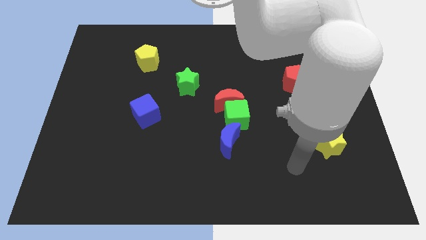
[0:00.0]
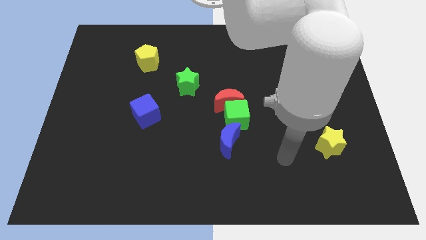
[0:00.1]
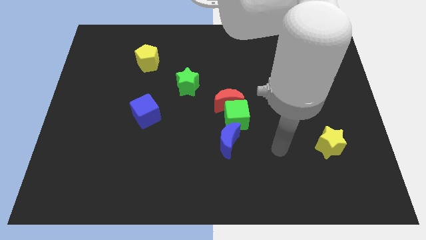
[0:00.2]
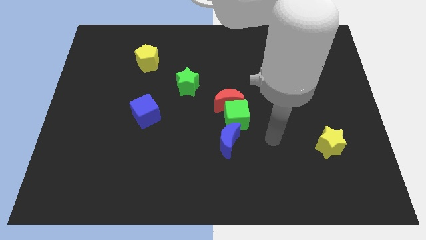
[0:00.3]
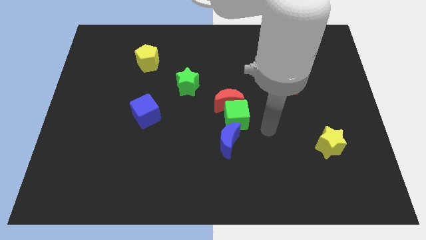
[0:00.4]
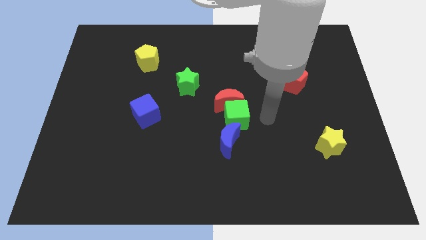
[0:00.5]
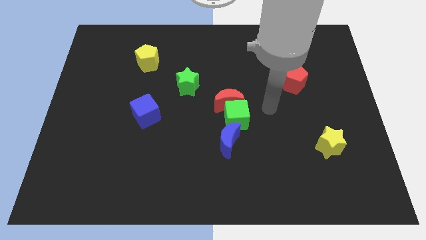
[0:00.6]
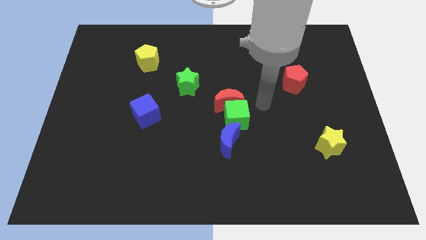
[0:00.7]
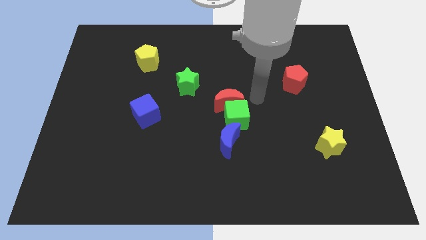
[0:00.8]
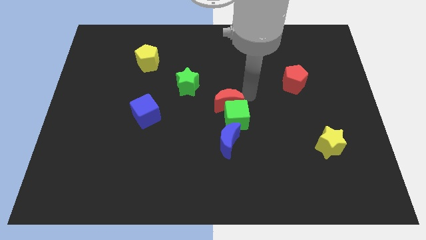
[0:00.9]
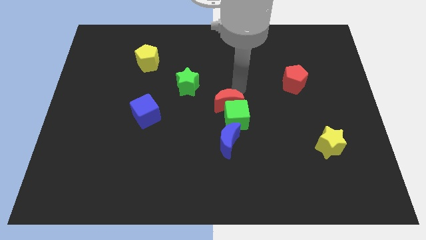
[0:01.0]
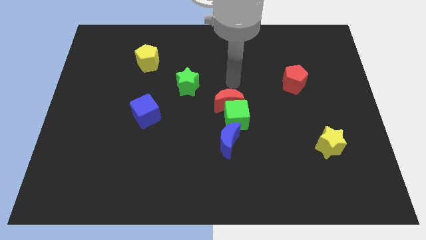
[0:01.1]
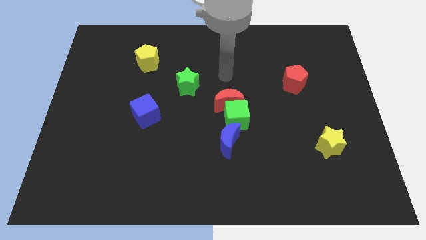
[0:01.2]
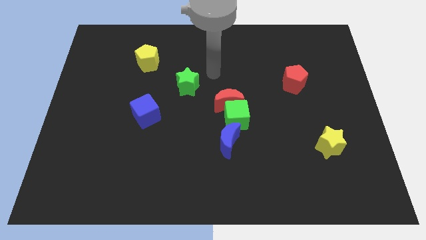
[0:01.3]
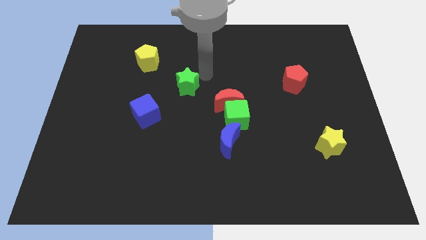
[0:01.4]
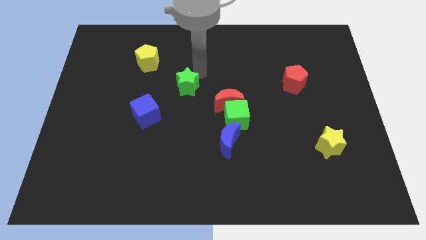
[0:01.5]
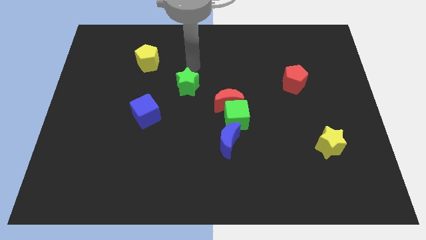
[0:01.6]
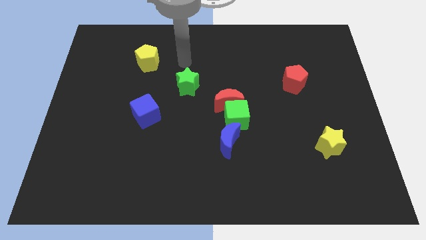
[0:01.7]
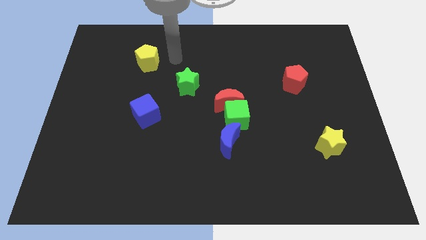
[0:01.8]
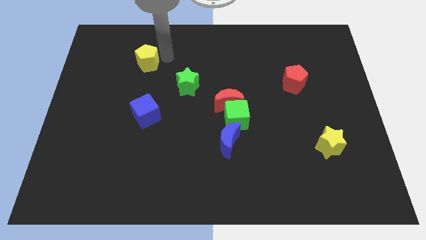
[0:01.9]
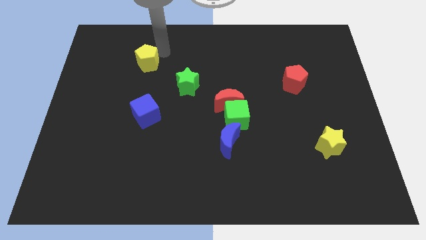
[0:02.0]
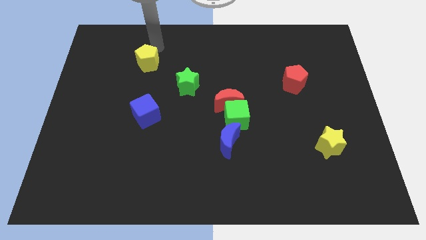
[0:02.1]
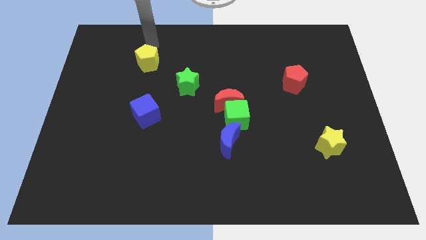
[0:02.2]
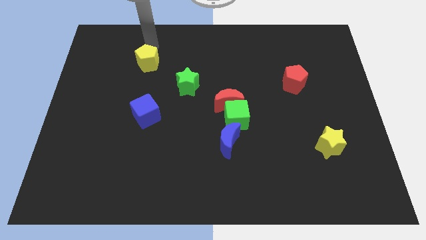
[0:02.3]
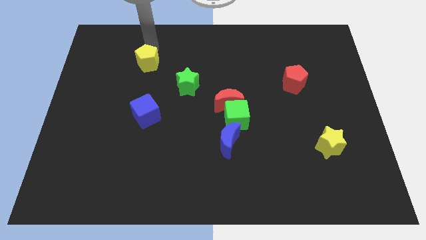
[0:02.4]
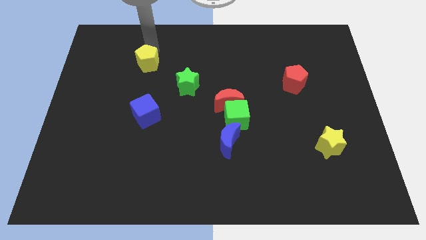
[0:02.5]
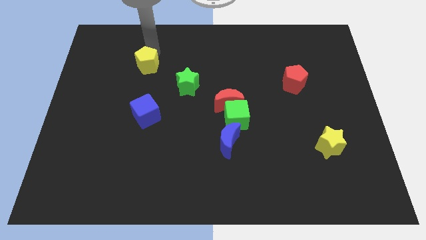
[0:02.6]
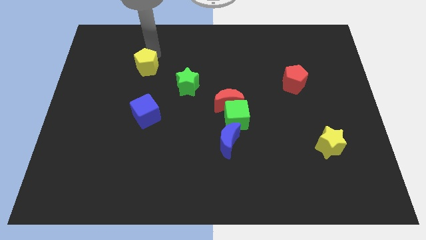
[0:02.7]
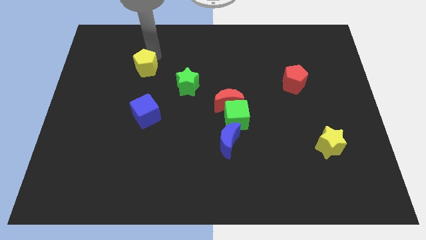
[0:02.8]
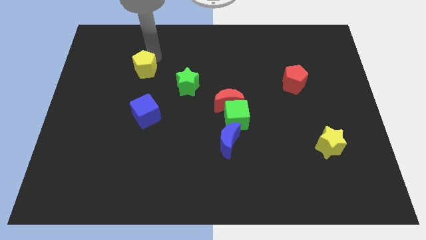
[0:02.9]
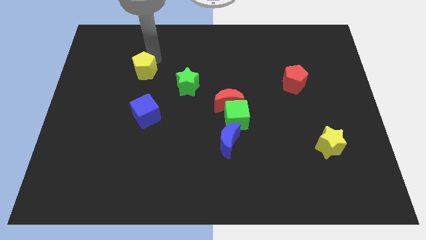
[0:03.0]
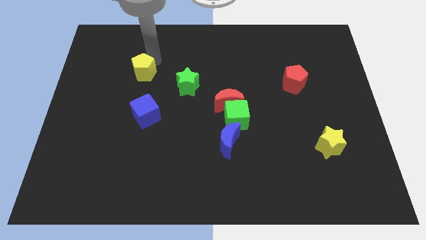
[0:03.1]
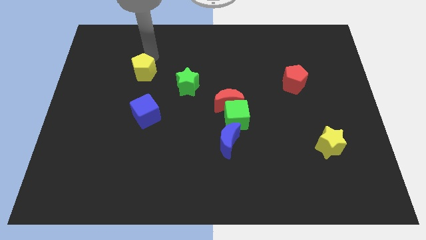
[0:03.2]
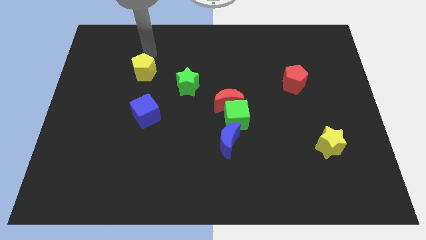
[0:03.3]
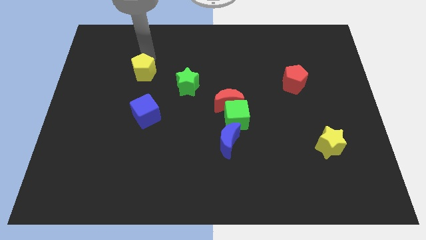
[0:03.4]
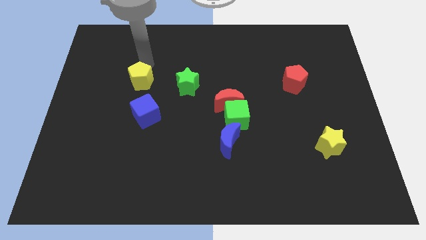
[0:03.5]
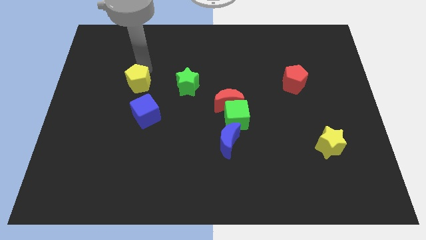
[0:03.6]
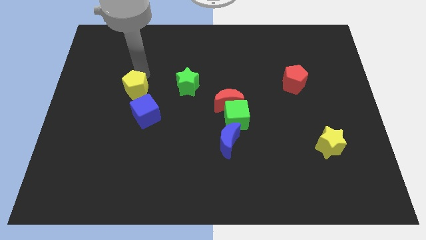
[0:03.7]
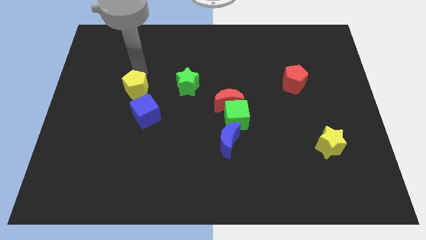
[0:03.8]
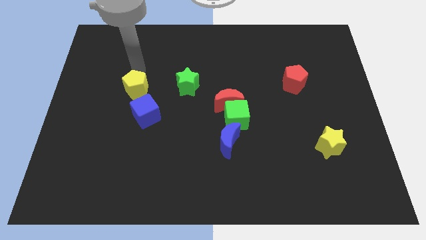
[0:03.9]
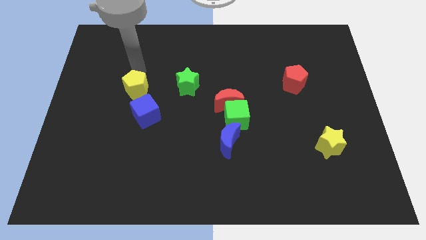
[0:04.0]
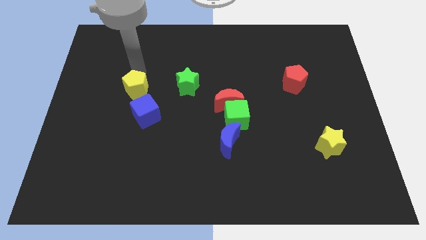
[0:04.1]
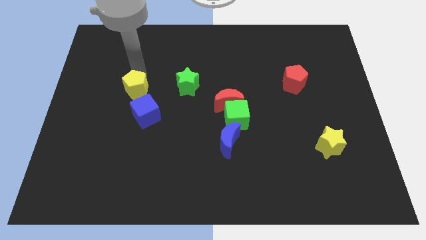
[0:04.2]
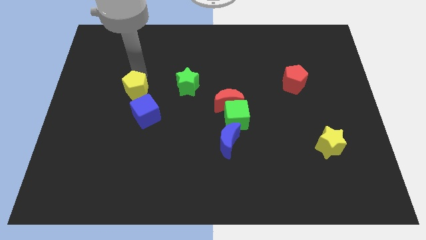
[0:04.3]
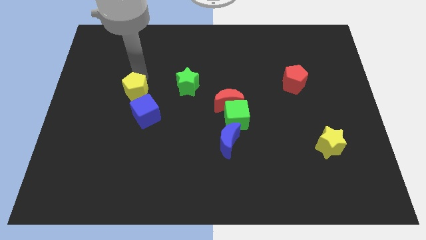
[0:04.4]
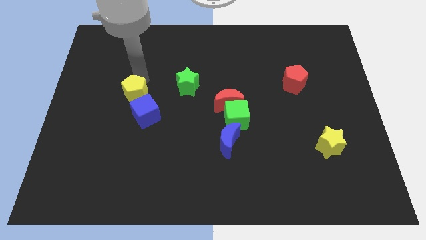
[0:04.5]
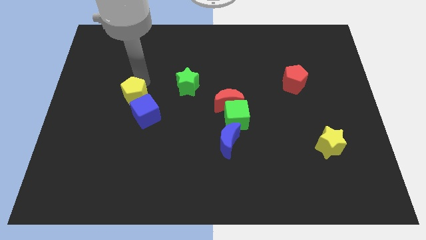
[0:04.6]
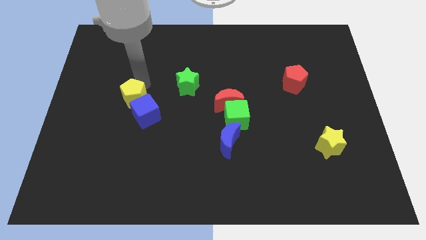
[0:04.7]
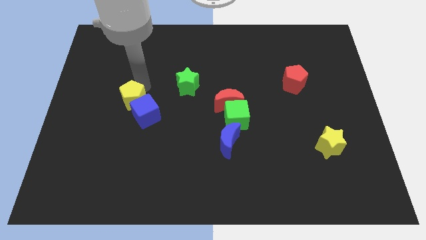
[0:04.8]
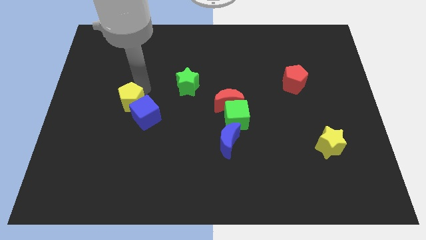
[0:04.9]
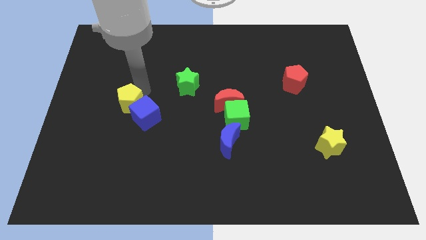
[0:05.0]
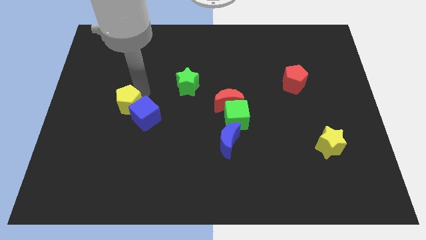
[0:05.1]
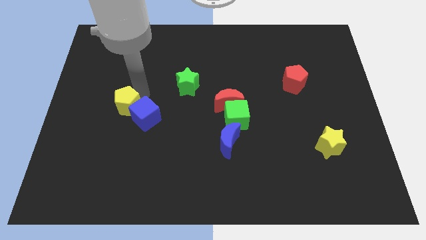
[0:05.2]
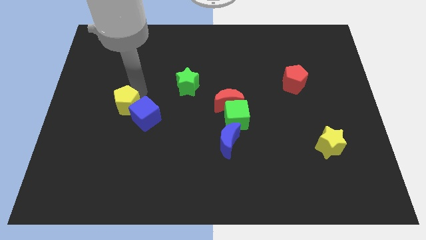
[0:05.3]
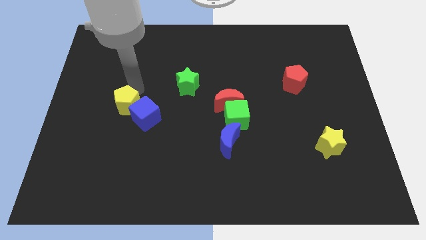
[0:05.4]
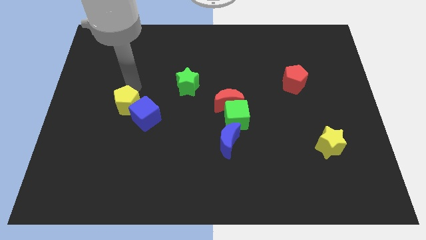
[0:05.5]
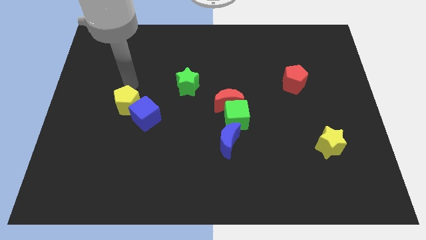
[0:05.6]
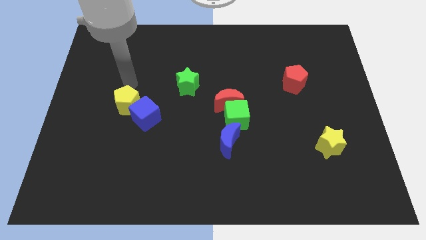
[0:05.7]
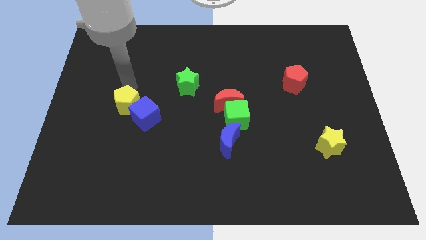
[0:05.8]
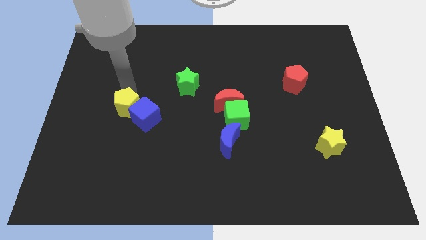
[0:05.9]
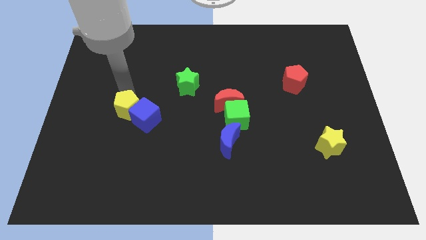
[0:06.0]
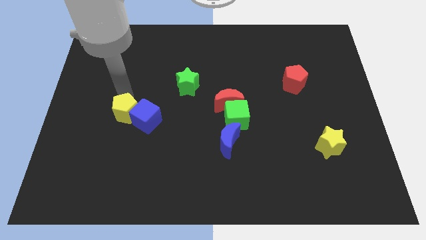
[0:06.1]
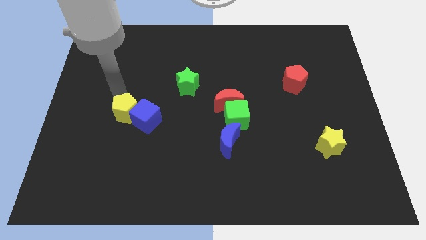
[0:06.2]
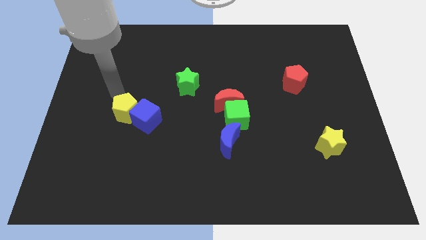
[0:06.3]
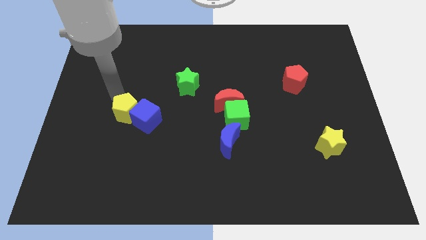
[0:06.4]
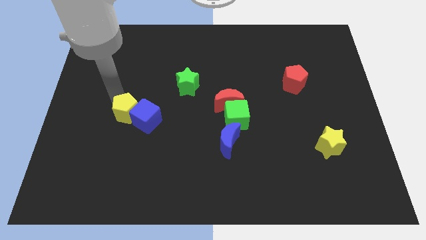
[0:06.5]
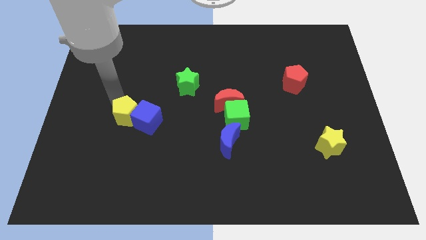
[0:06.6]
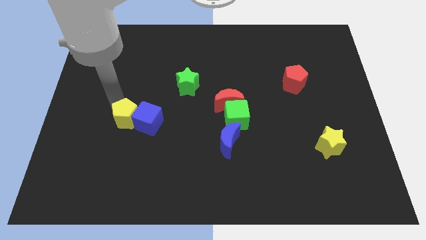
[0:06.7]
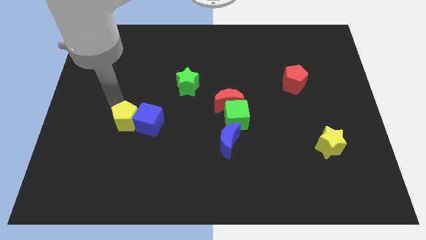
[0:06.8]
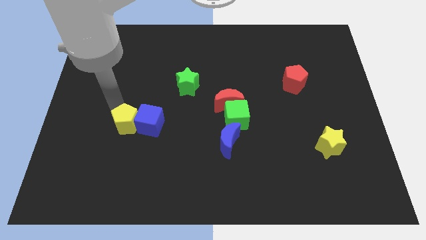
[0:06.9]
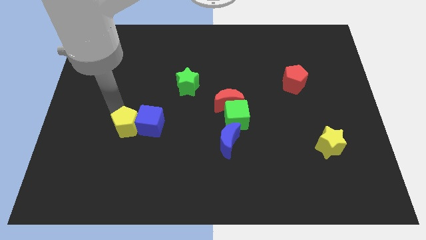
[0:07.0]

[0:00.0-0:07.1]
move the yellow pentagon down

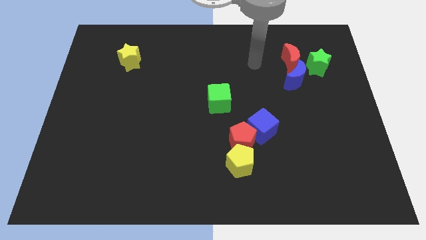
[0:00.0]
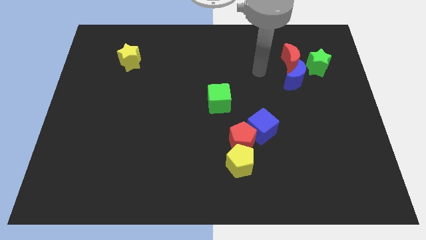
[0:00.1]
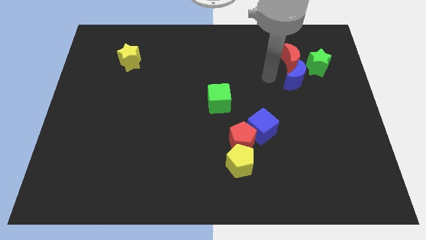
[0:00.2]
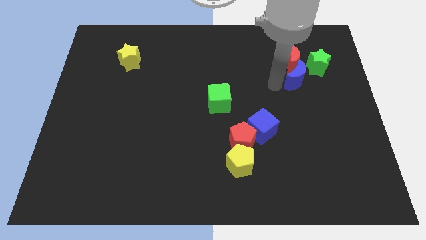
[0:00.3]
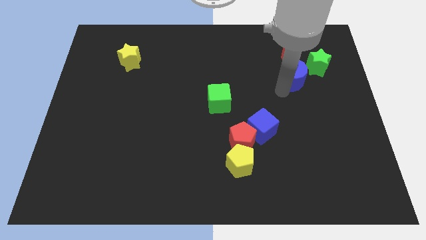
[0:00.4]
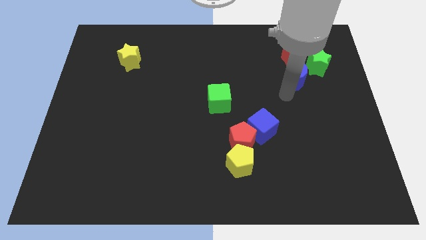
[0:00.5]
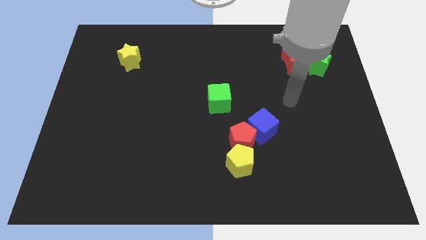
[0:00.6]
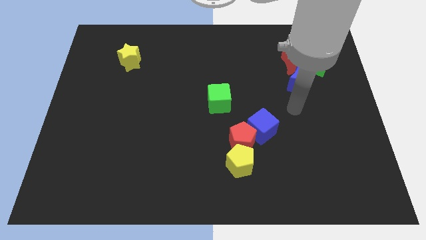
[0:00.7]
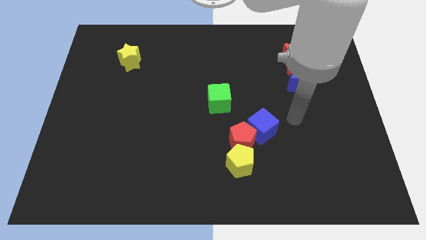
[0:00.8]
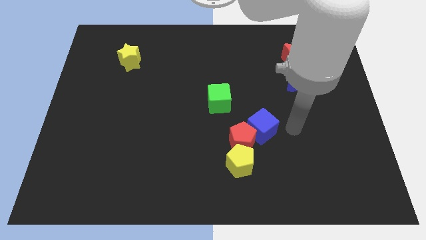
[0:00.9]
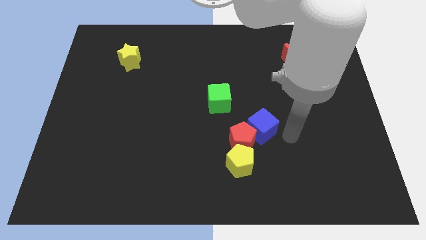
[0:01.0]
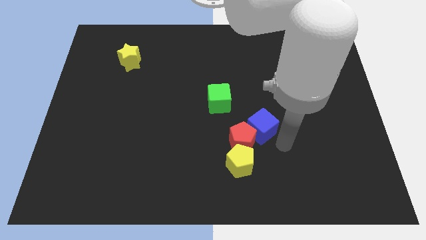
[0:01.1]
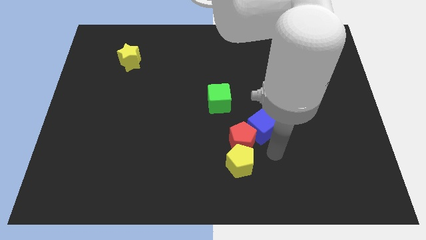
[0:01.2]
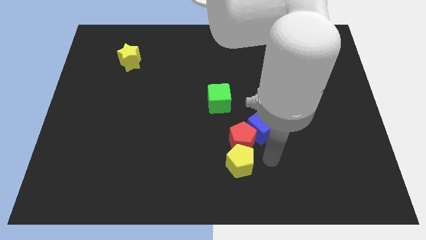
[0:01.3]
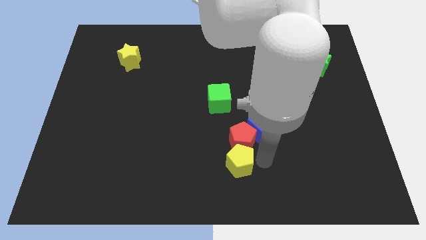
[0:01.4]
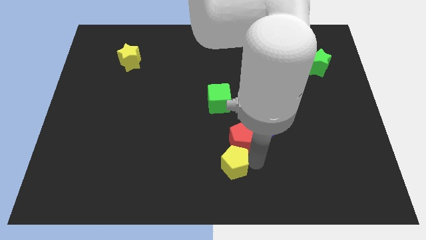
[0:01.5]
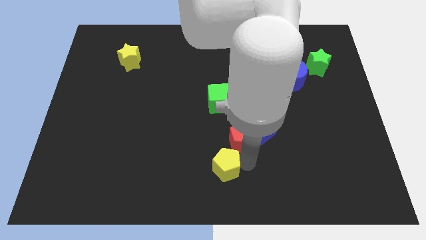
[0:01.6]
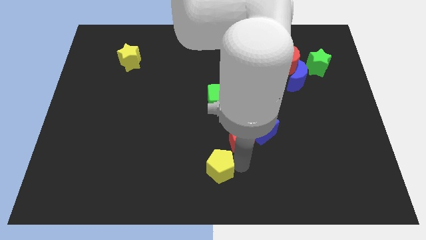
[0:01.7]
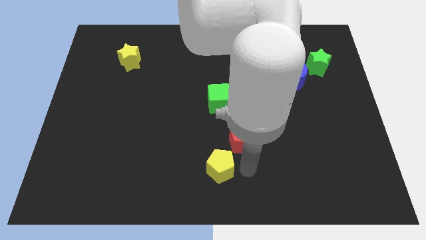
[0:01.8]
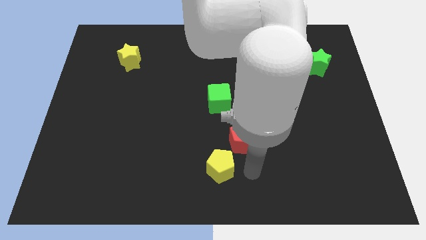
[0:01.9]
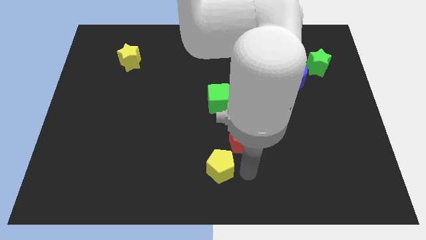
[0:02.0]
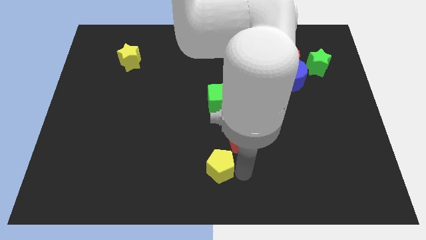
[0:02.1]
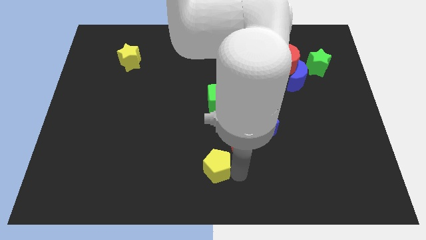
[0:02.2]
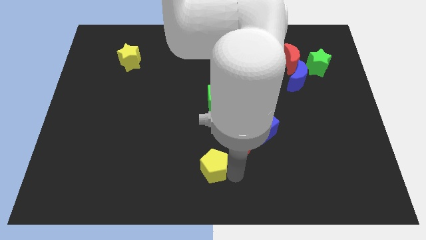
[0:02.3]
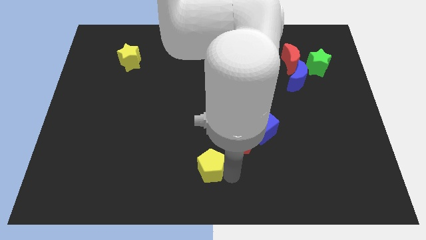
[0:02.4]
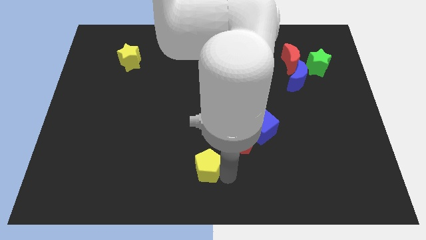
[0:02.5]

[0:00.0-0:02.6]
push the yellow pentagon to the left somewhat
